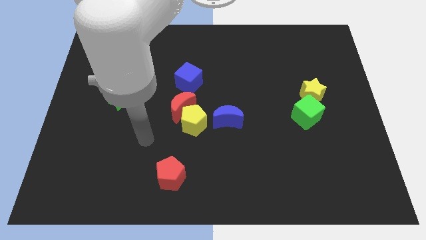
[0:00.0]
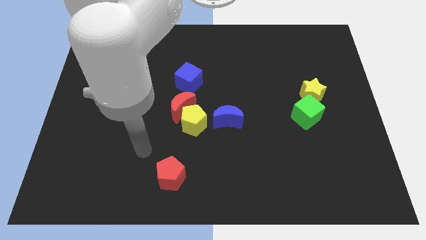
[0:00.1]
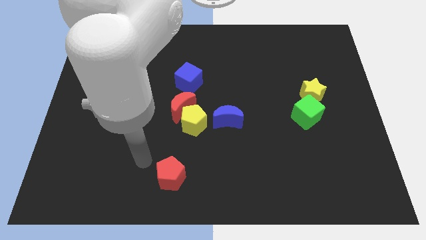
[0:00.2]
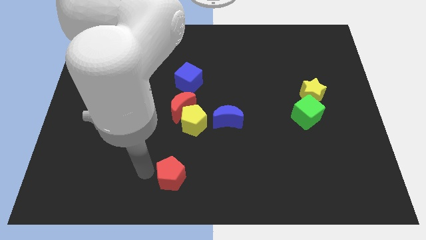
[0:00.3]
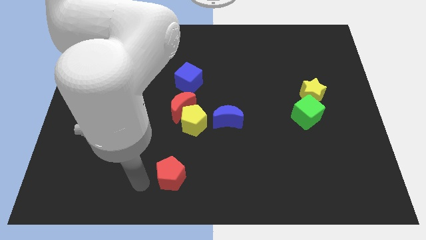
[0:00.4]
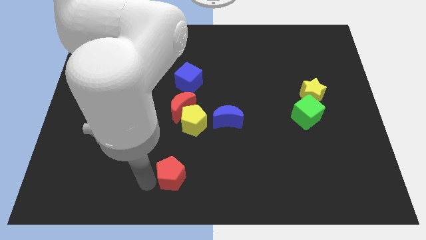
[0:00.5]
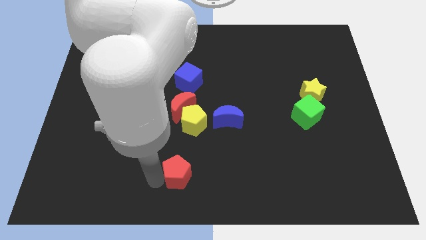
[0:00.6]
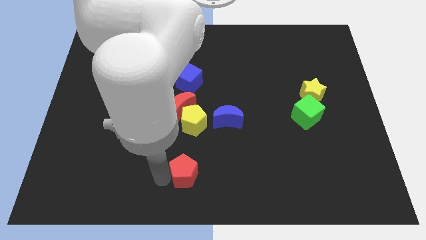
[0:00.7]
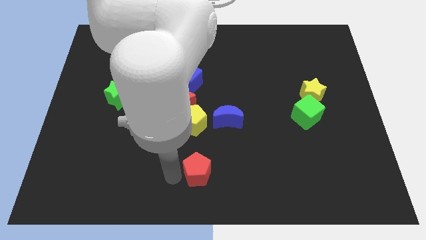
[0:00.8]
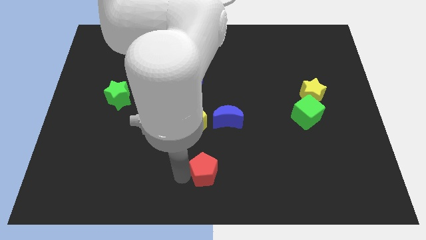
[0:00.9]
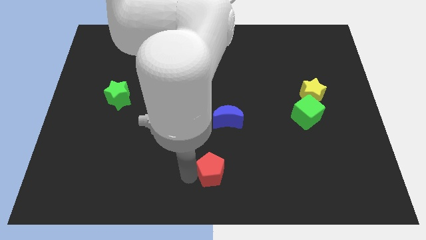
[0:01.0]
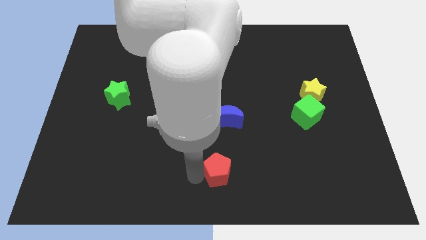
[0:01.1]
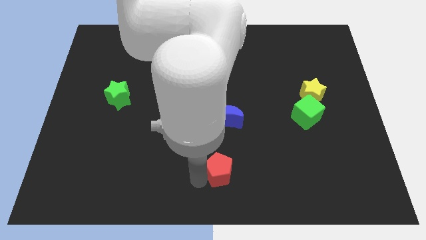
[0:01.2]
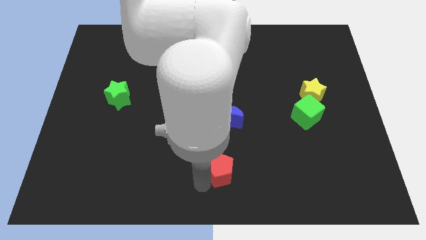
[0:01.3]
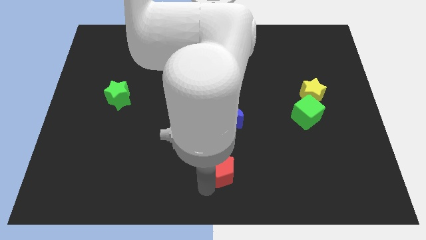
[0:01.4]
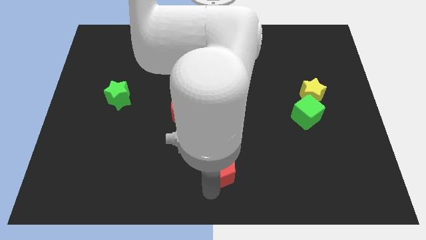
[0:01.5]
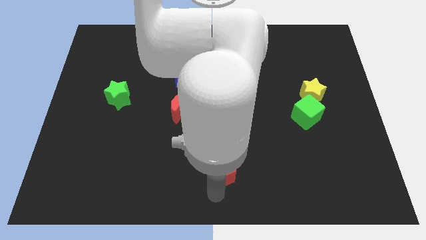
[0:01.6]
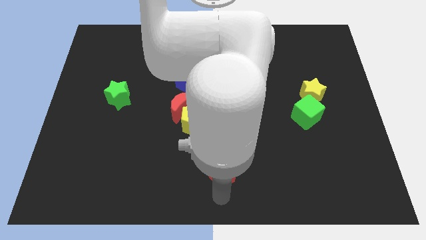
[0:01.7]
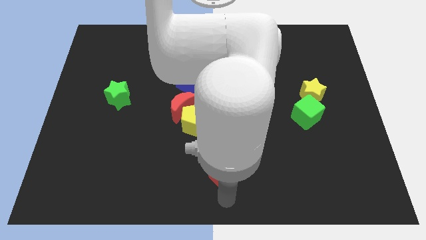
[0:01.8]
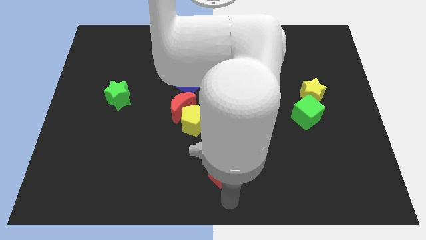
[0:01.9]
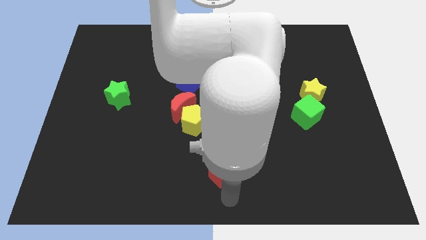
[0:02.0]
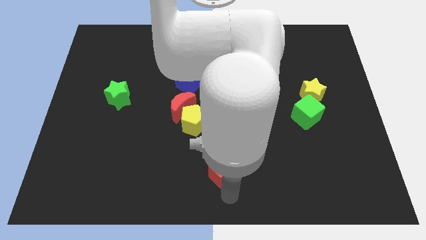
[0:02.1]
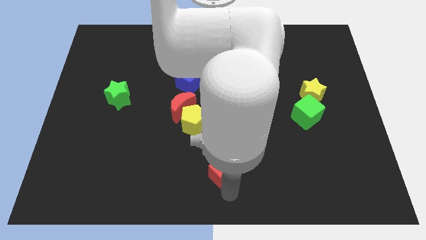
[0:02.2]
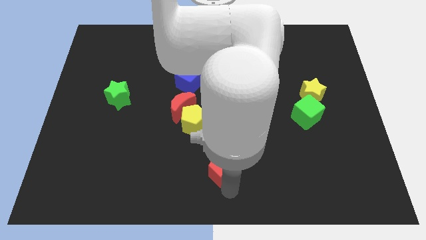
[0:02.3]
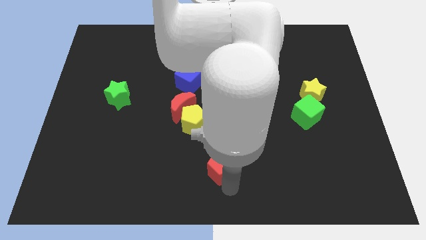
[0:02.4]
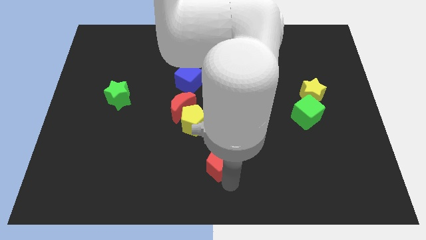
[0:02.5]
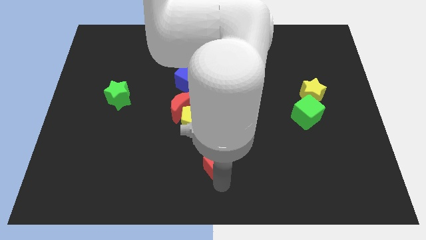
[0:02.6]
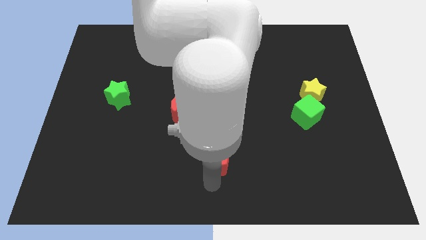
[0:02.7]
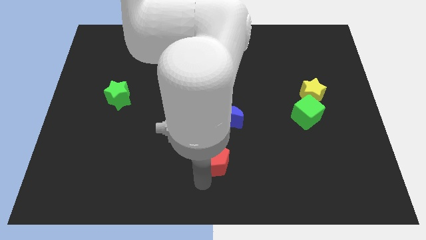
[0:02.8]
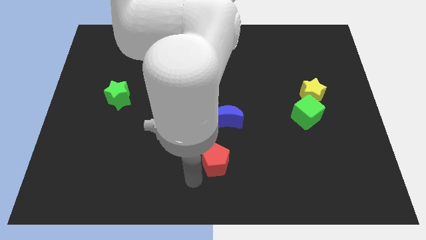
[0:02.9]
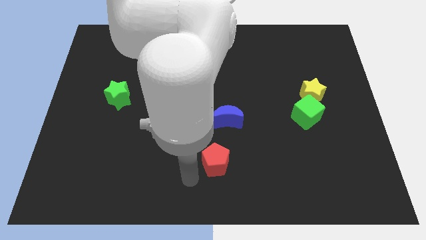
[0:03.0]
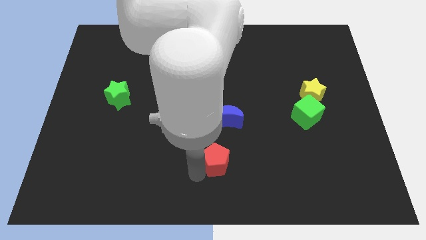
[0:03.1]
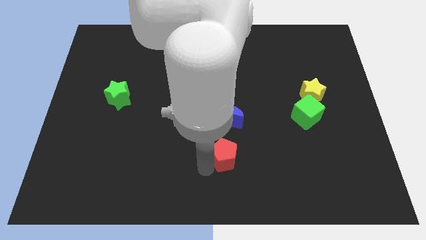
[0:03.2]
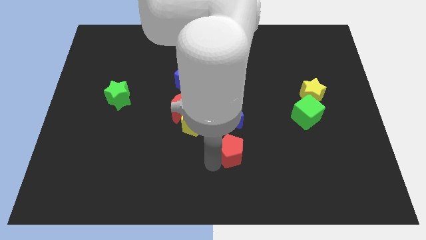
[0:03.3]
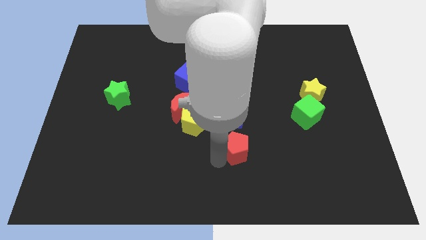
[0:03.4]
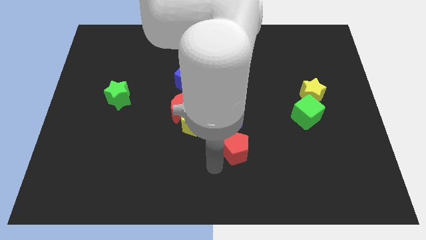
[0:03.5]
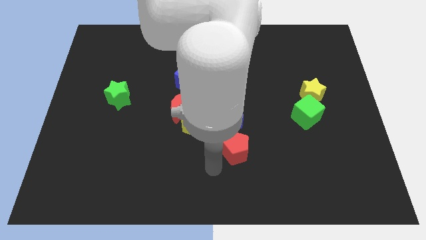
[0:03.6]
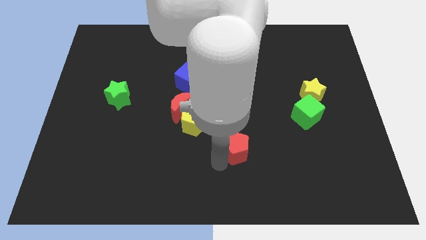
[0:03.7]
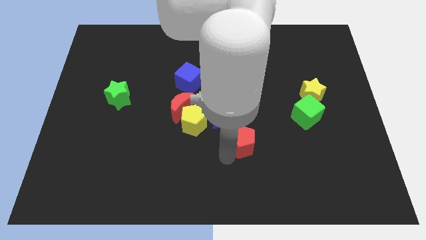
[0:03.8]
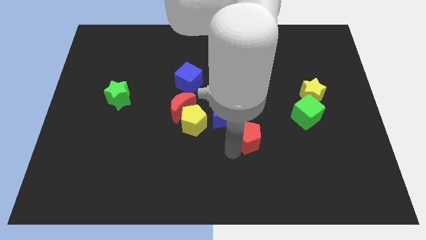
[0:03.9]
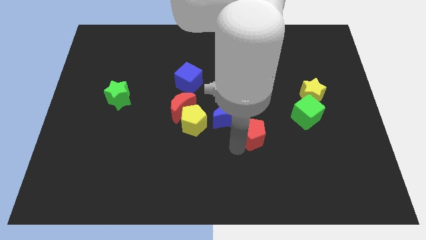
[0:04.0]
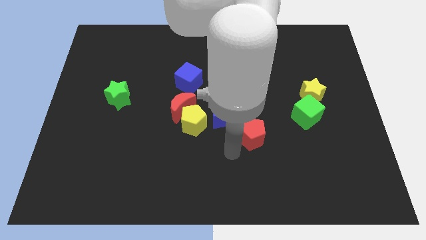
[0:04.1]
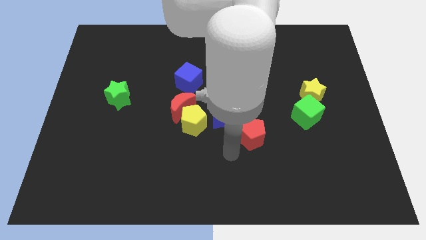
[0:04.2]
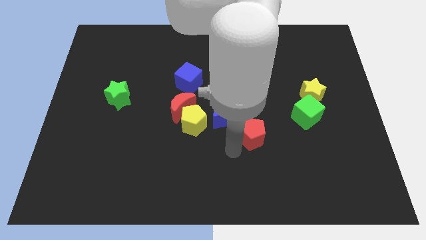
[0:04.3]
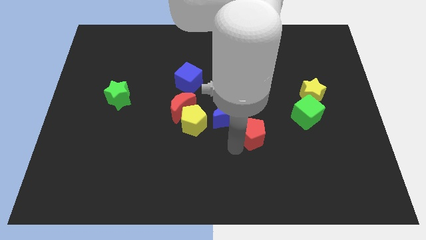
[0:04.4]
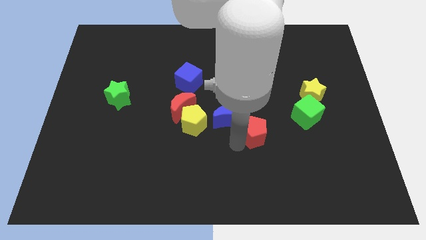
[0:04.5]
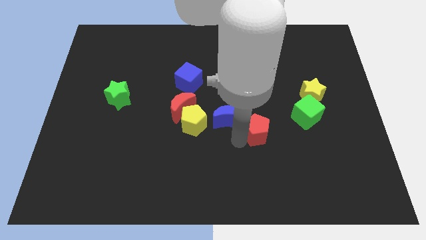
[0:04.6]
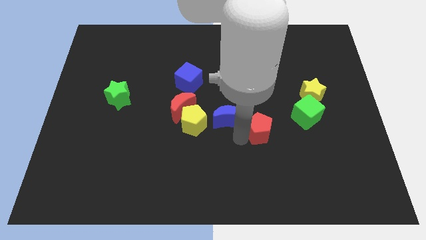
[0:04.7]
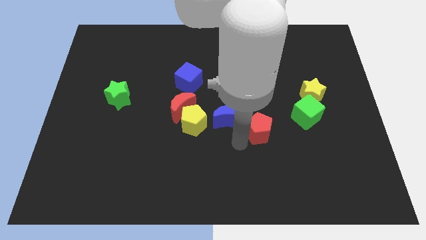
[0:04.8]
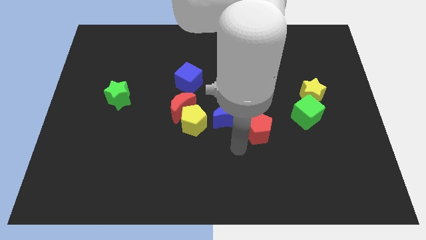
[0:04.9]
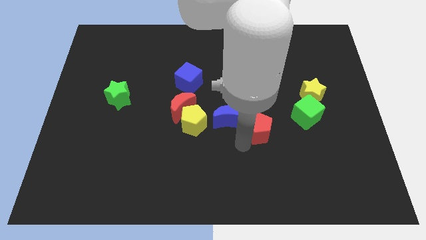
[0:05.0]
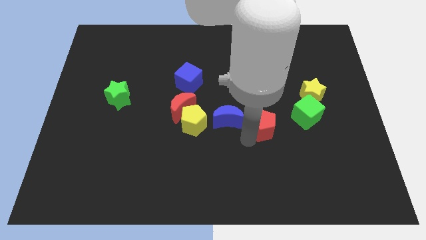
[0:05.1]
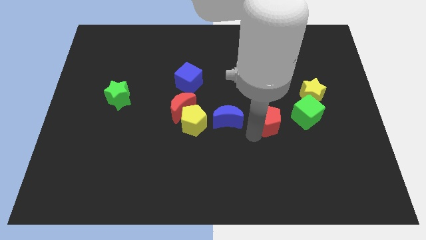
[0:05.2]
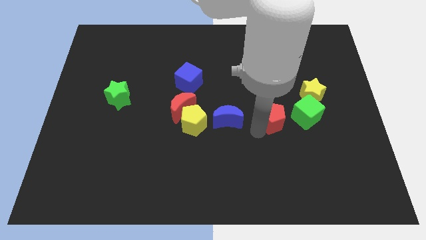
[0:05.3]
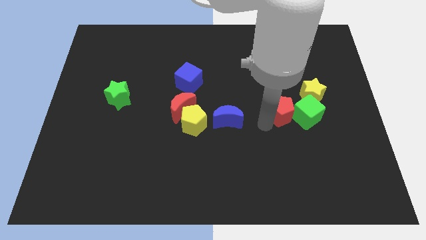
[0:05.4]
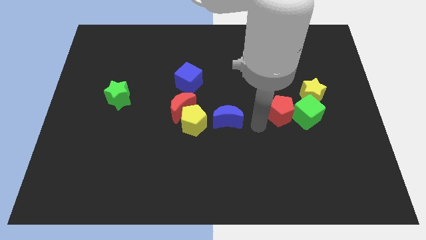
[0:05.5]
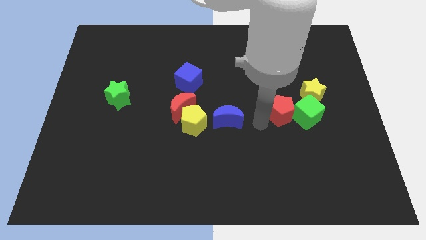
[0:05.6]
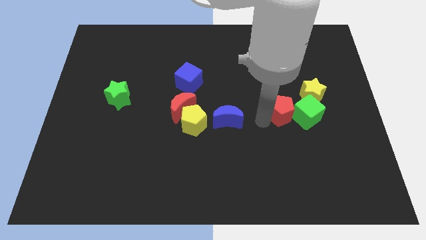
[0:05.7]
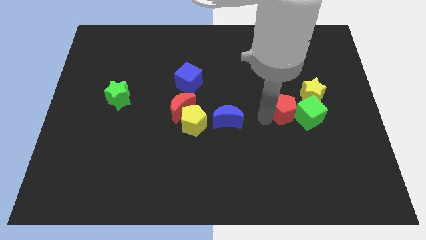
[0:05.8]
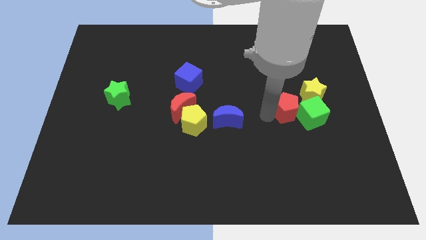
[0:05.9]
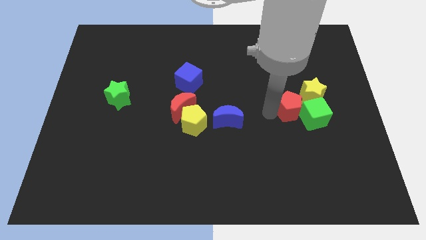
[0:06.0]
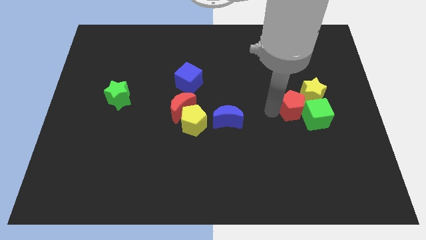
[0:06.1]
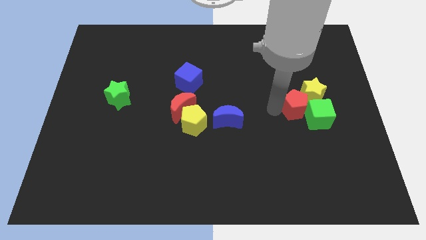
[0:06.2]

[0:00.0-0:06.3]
move the red pentagon towards the yellow star

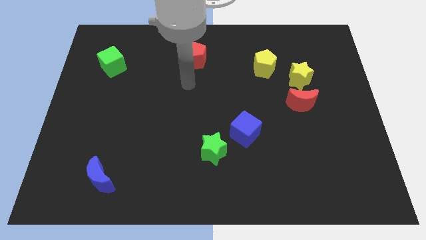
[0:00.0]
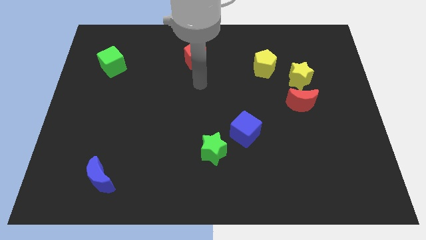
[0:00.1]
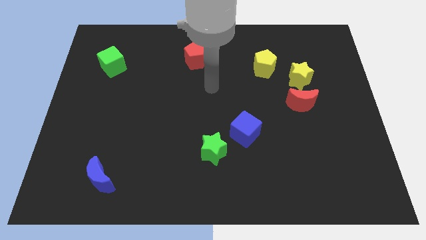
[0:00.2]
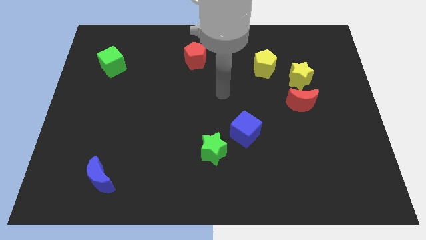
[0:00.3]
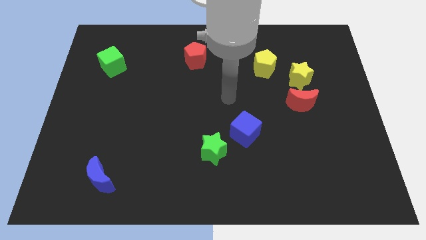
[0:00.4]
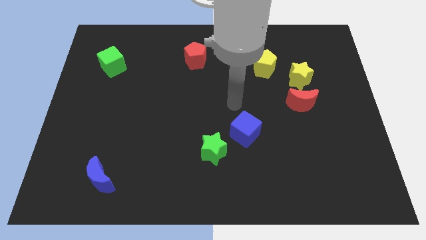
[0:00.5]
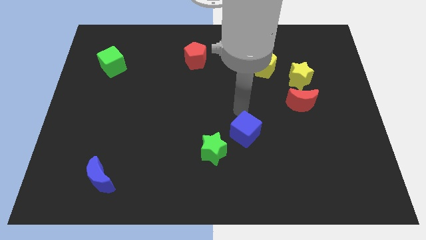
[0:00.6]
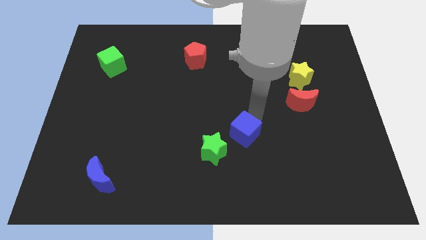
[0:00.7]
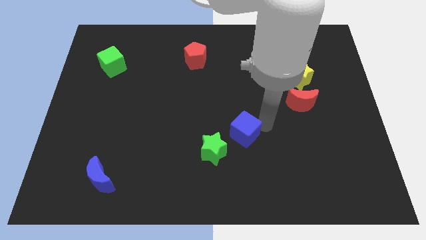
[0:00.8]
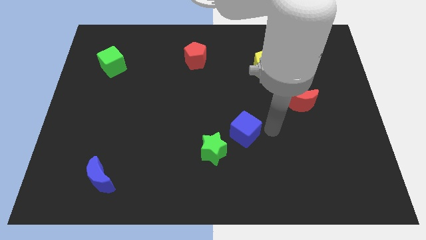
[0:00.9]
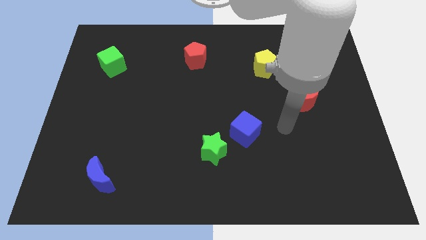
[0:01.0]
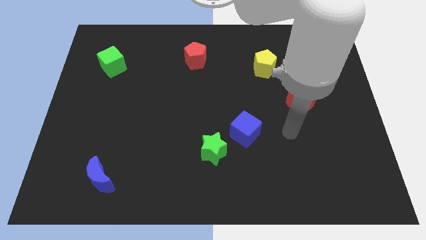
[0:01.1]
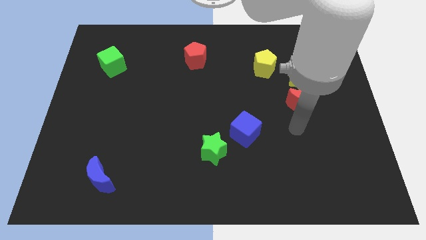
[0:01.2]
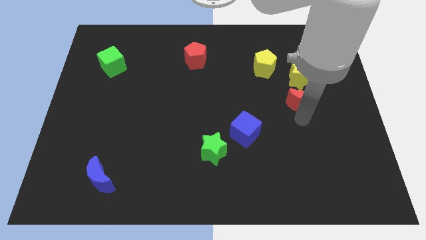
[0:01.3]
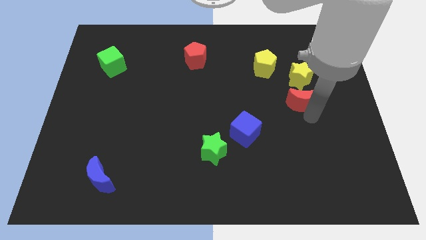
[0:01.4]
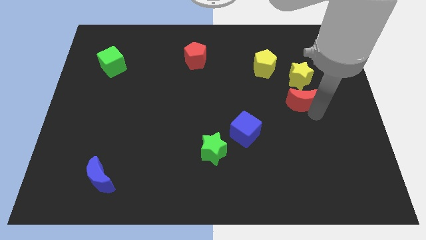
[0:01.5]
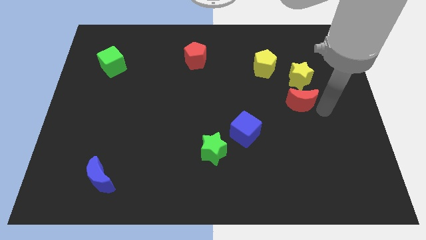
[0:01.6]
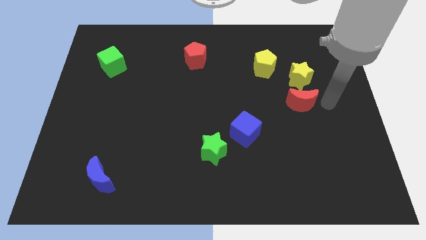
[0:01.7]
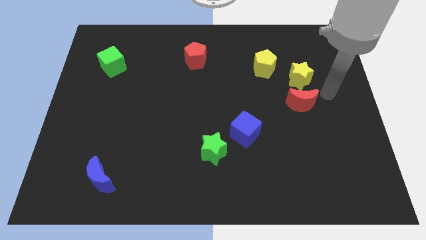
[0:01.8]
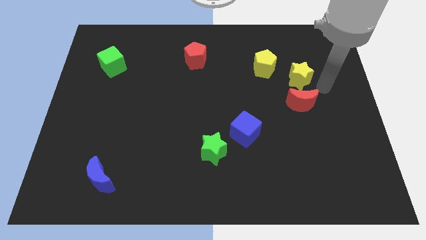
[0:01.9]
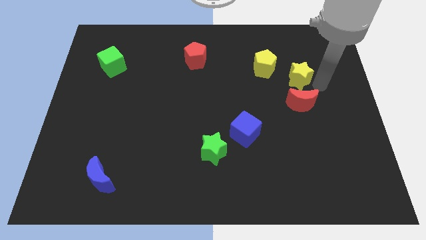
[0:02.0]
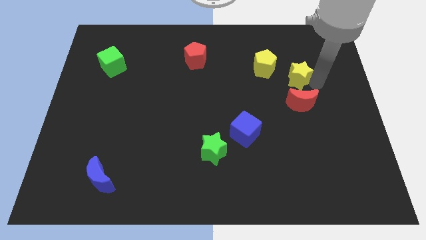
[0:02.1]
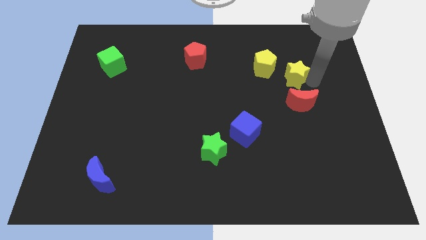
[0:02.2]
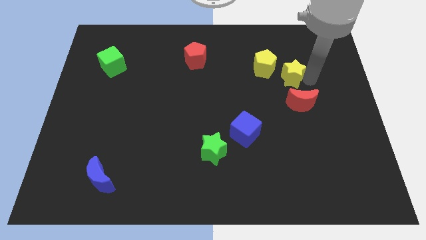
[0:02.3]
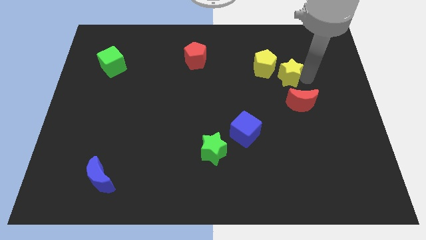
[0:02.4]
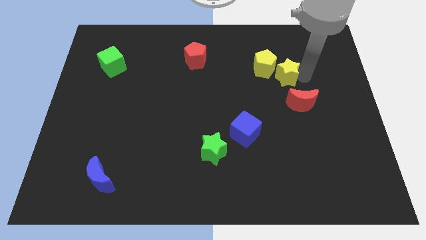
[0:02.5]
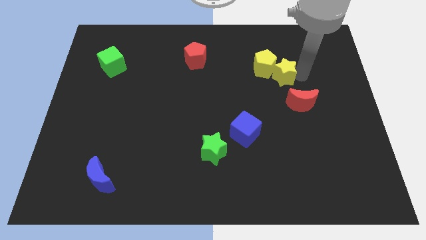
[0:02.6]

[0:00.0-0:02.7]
push the yellow star next to the yellow pentagon
